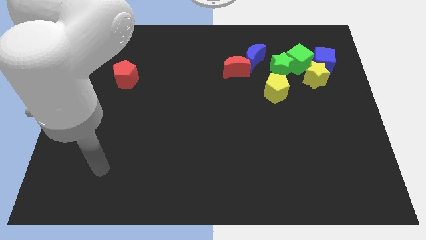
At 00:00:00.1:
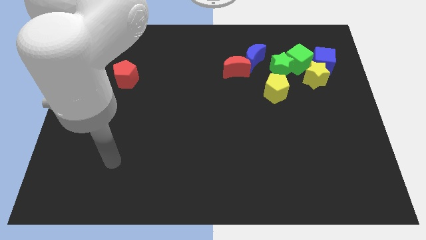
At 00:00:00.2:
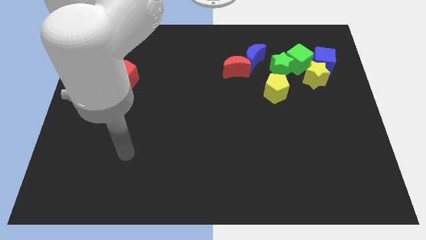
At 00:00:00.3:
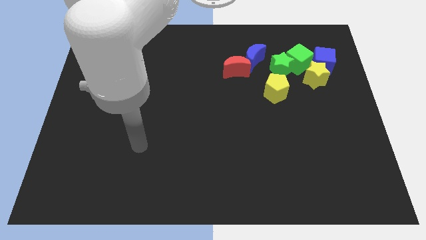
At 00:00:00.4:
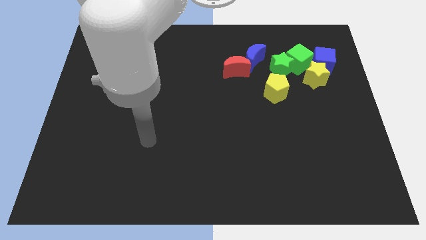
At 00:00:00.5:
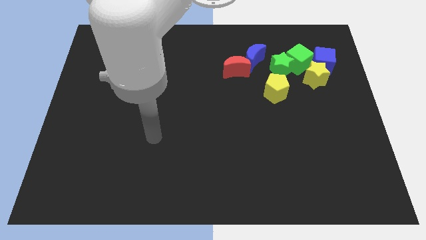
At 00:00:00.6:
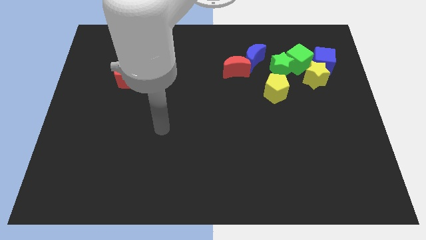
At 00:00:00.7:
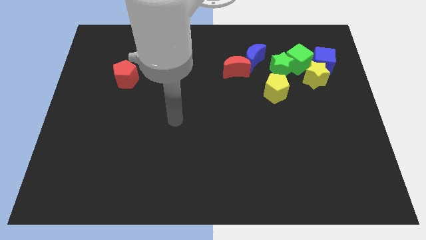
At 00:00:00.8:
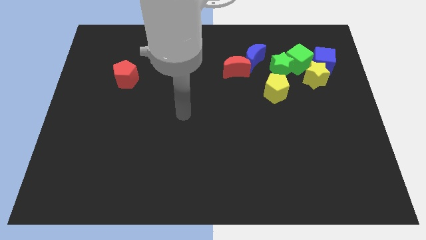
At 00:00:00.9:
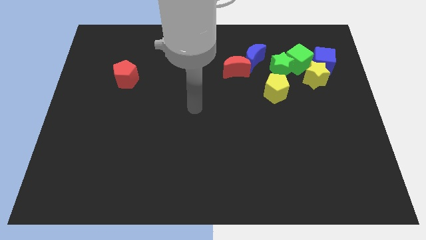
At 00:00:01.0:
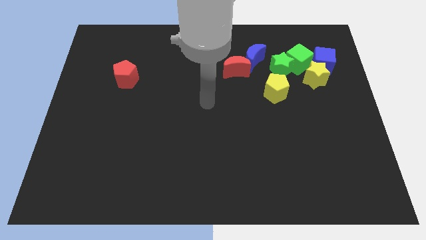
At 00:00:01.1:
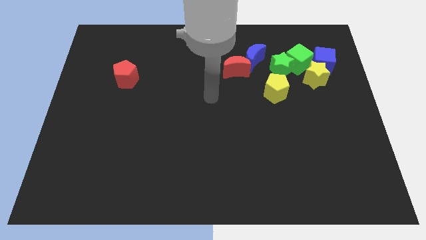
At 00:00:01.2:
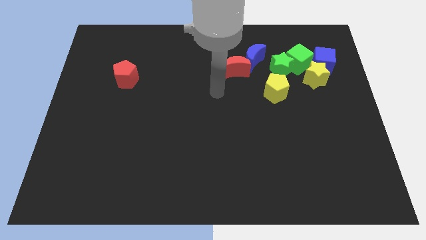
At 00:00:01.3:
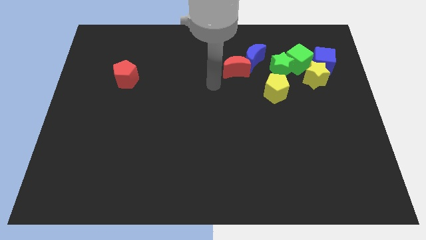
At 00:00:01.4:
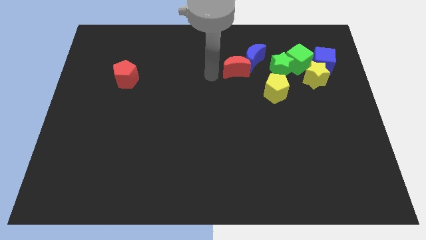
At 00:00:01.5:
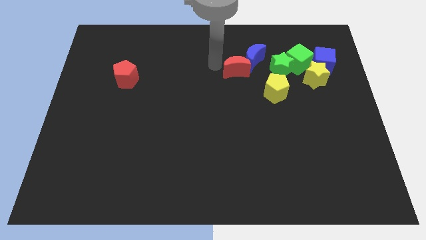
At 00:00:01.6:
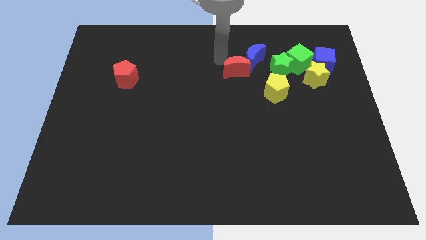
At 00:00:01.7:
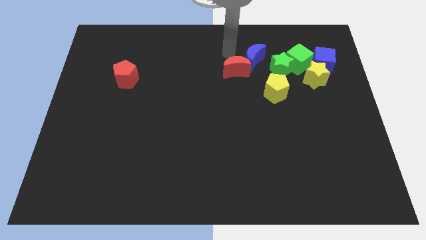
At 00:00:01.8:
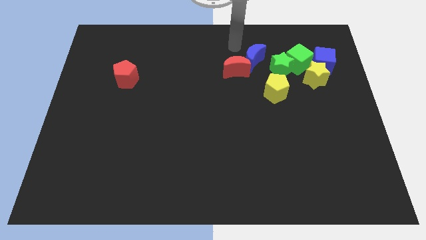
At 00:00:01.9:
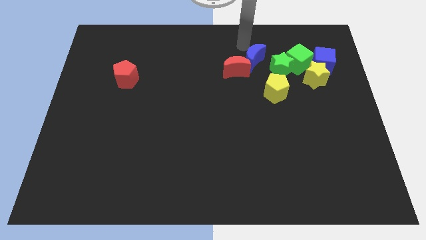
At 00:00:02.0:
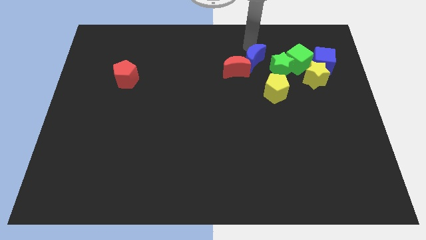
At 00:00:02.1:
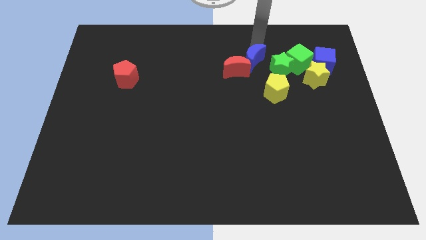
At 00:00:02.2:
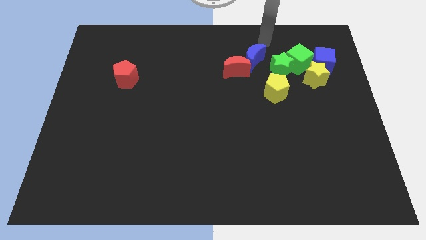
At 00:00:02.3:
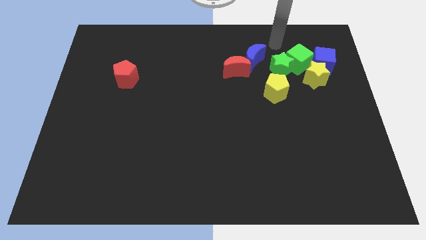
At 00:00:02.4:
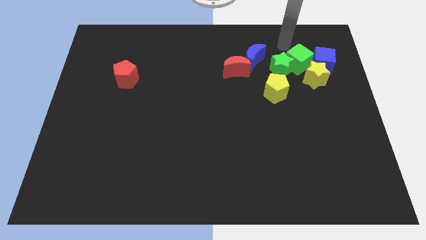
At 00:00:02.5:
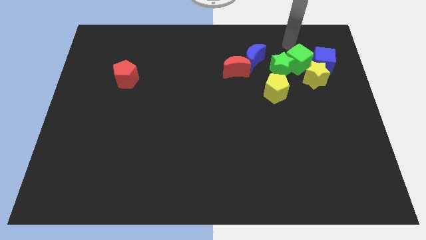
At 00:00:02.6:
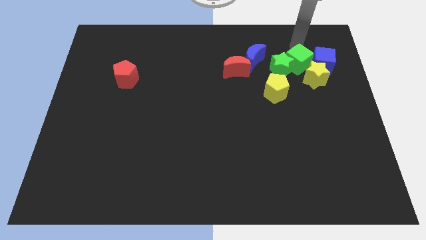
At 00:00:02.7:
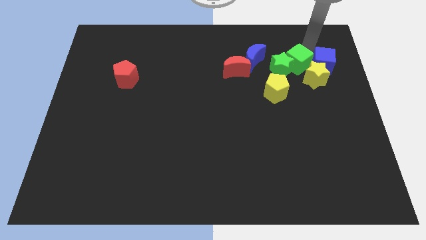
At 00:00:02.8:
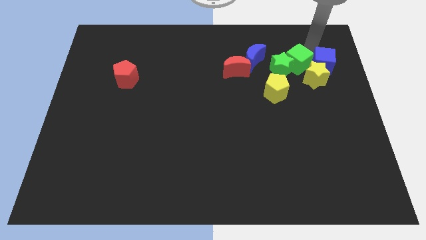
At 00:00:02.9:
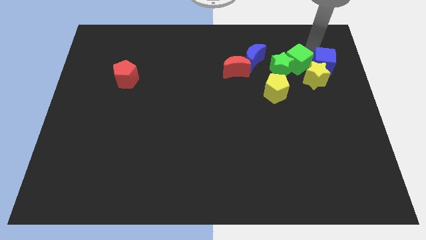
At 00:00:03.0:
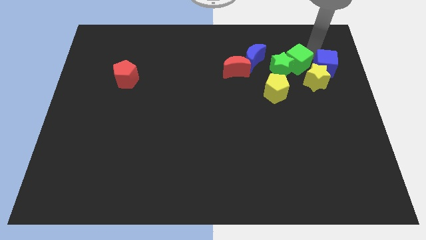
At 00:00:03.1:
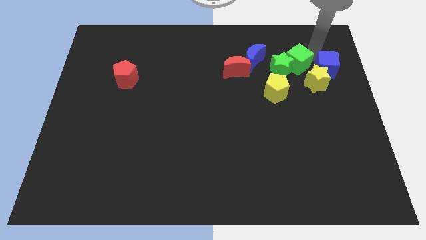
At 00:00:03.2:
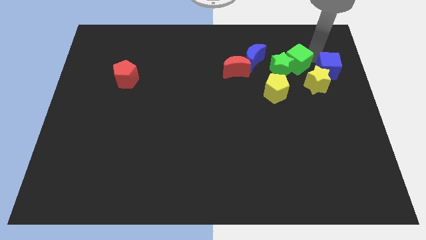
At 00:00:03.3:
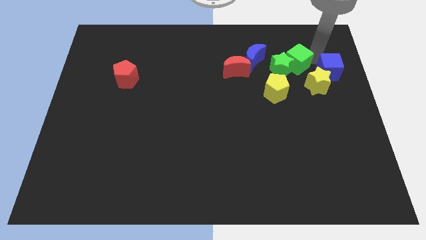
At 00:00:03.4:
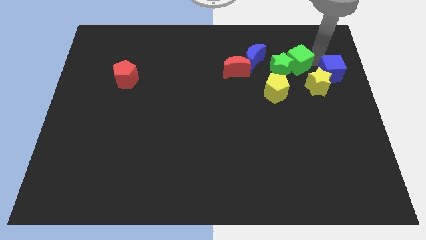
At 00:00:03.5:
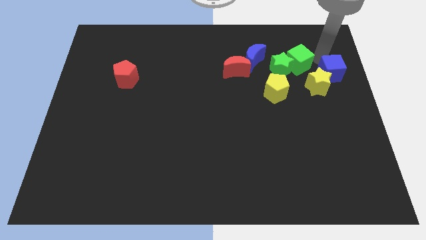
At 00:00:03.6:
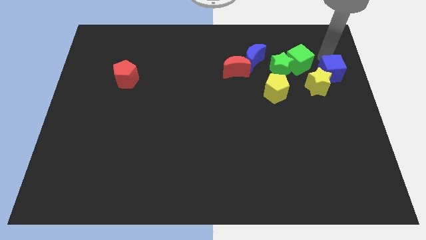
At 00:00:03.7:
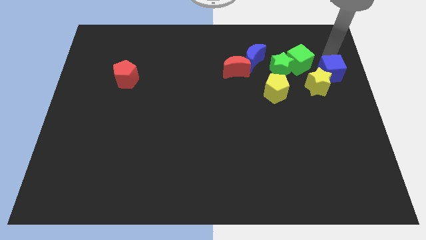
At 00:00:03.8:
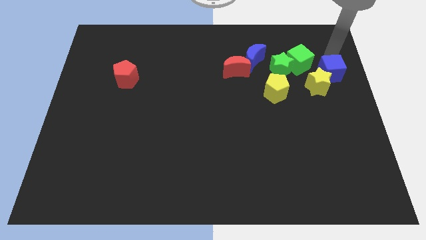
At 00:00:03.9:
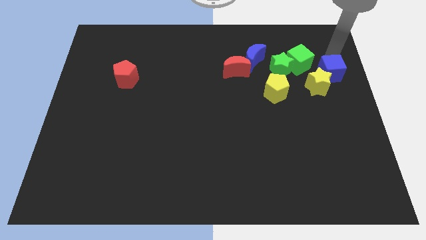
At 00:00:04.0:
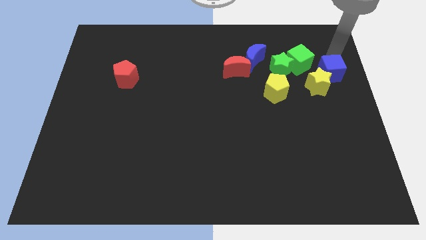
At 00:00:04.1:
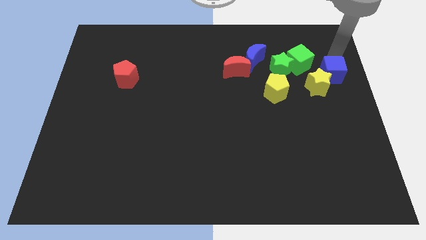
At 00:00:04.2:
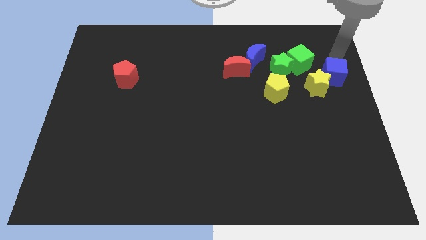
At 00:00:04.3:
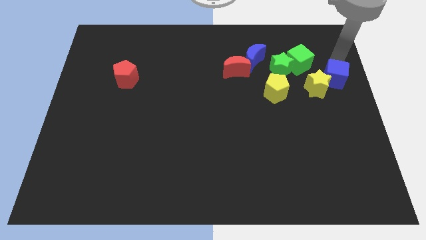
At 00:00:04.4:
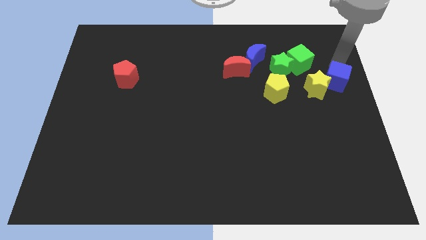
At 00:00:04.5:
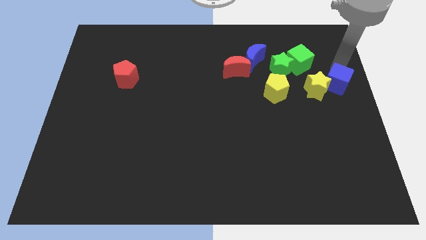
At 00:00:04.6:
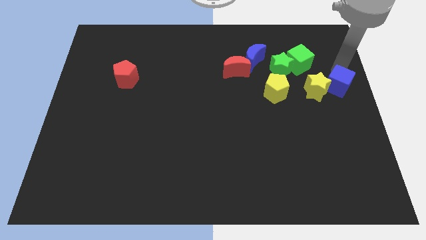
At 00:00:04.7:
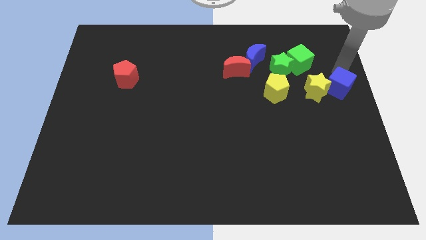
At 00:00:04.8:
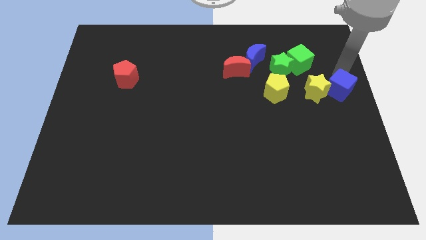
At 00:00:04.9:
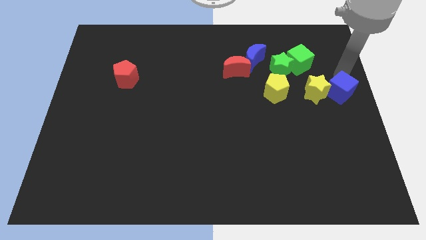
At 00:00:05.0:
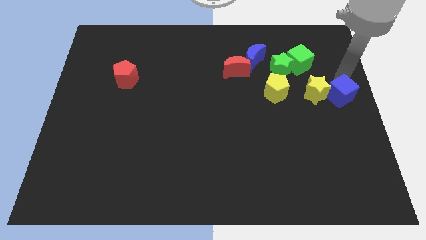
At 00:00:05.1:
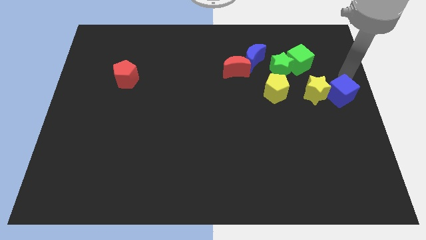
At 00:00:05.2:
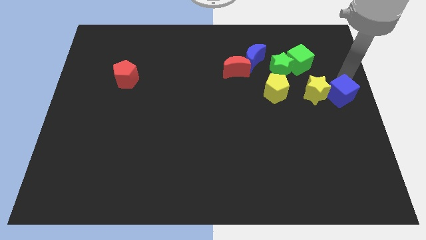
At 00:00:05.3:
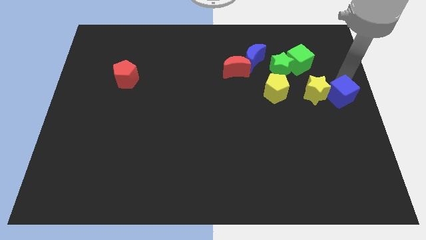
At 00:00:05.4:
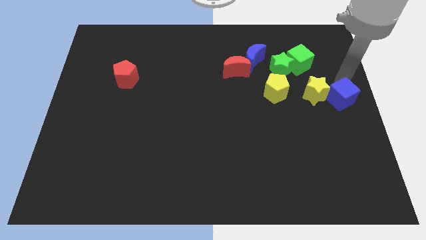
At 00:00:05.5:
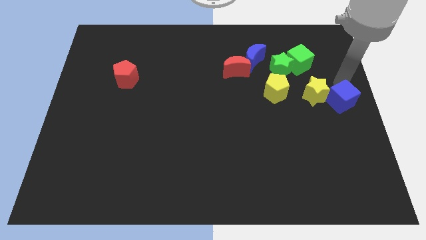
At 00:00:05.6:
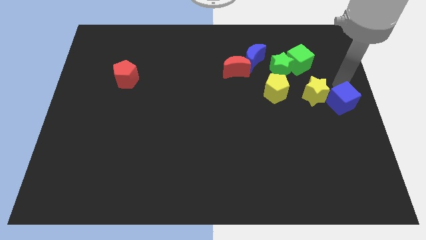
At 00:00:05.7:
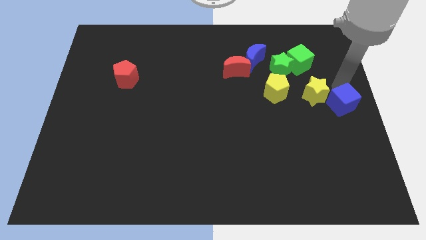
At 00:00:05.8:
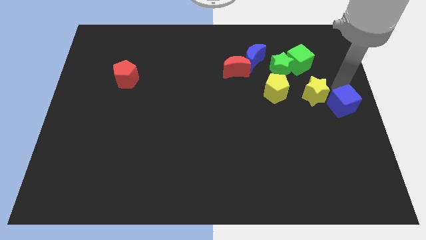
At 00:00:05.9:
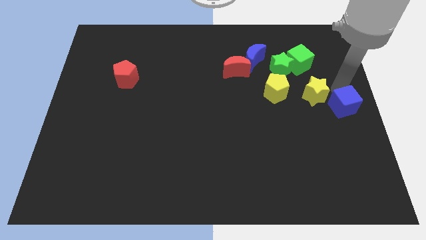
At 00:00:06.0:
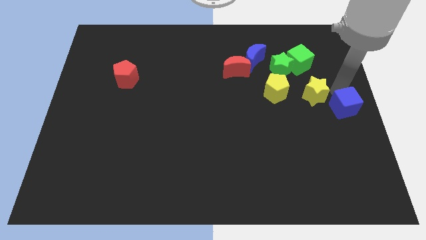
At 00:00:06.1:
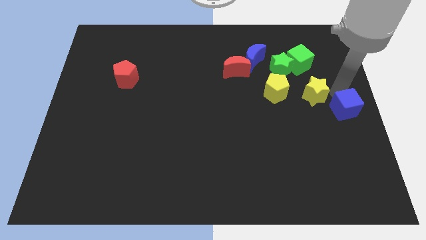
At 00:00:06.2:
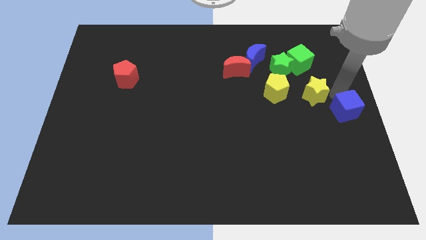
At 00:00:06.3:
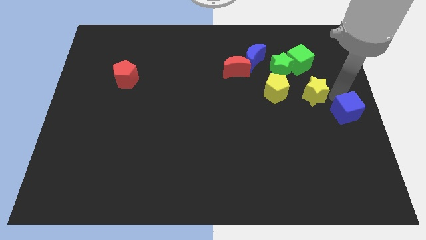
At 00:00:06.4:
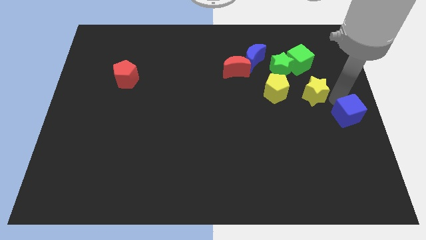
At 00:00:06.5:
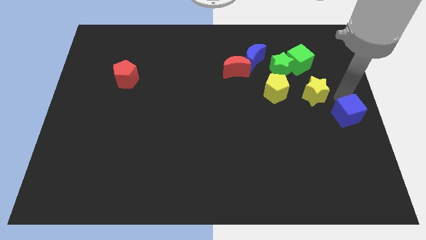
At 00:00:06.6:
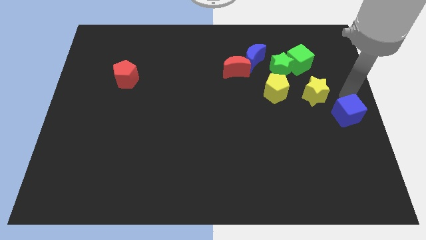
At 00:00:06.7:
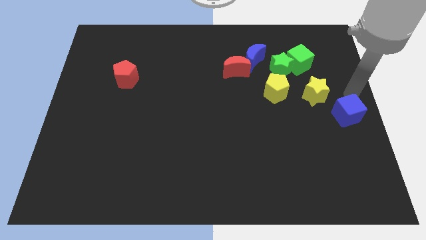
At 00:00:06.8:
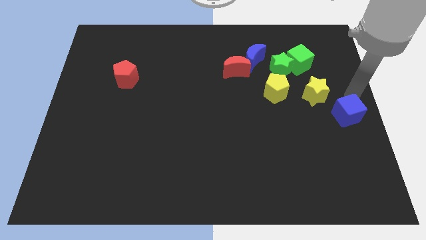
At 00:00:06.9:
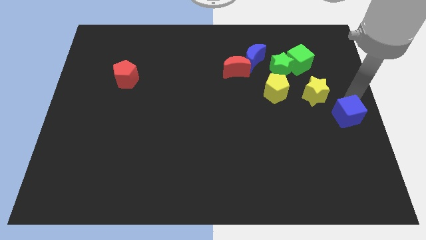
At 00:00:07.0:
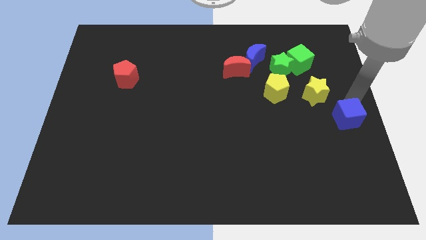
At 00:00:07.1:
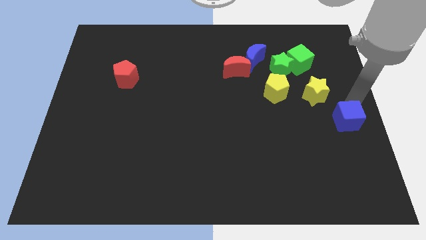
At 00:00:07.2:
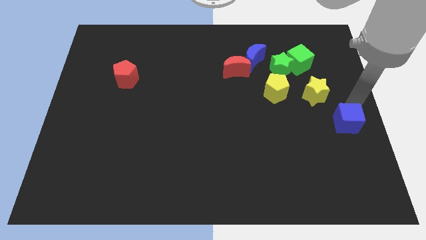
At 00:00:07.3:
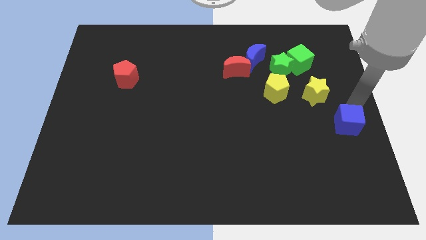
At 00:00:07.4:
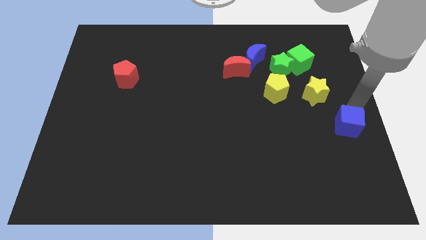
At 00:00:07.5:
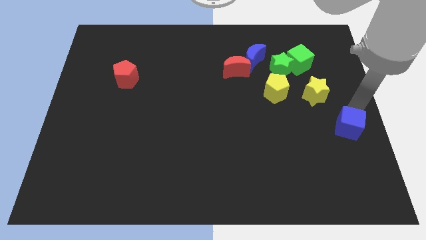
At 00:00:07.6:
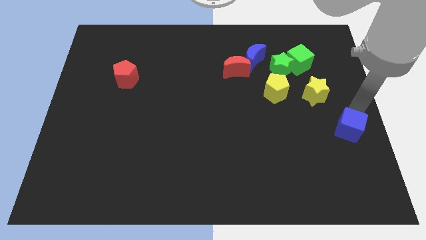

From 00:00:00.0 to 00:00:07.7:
slide the blue cube down

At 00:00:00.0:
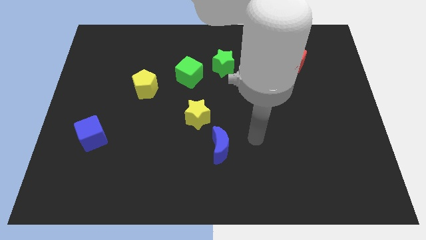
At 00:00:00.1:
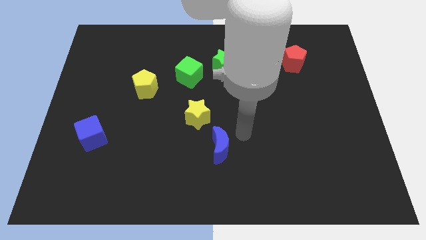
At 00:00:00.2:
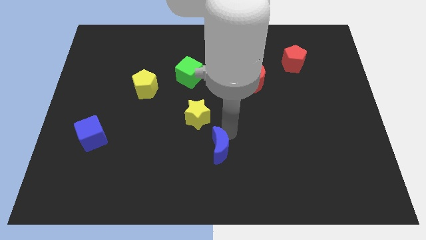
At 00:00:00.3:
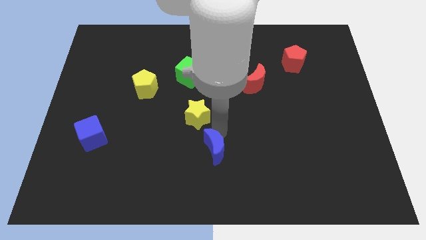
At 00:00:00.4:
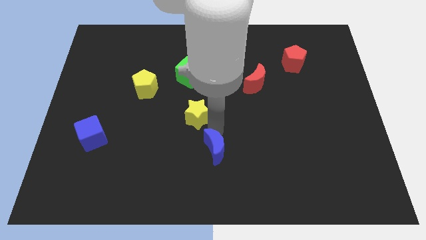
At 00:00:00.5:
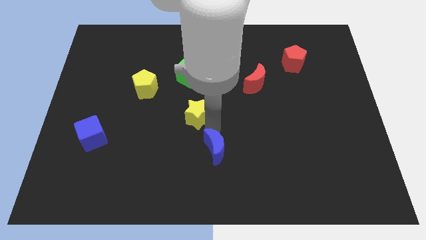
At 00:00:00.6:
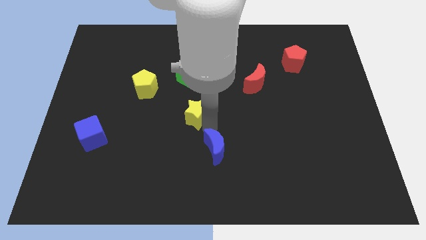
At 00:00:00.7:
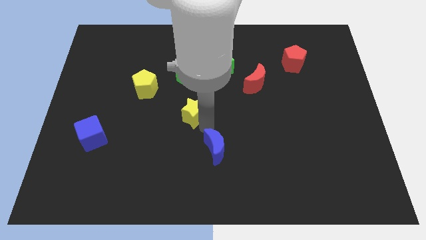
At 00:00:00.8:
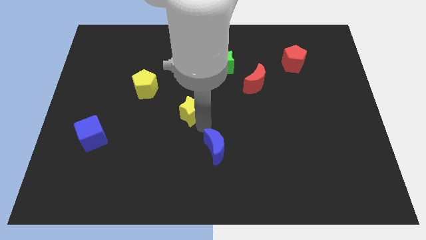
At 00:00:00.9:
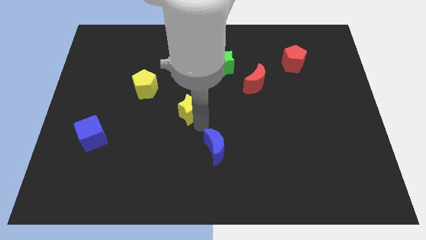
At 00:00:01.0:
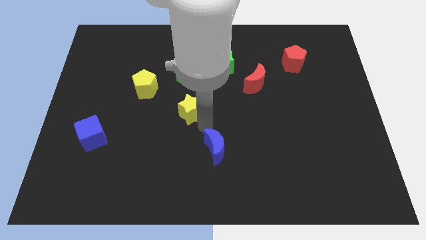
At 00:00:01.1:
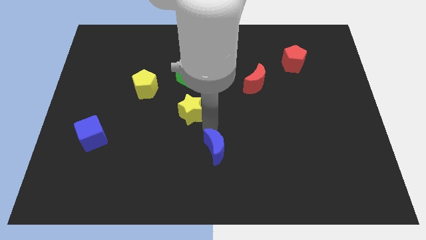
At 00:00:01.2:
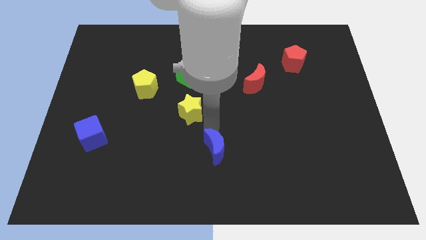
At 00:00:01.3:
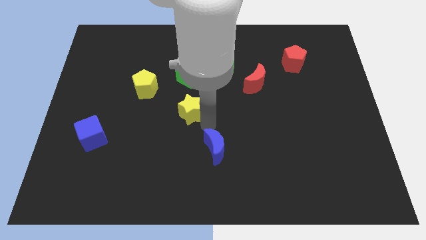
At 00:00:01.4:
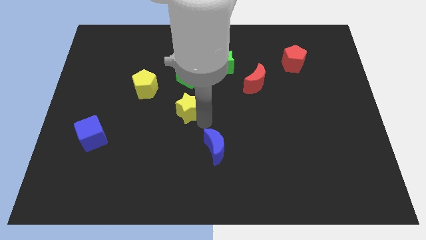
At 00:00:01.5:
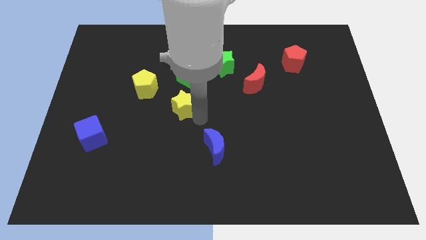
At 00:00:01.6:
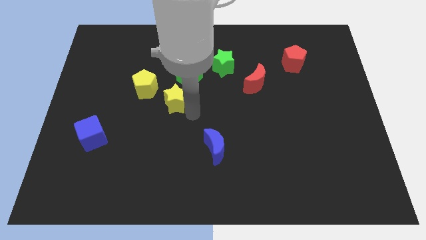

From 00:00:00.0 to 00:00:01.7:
move the yellow star up and left diagonally a little
